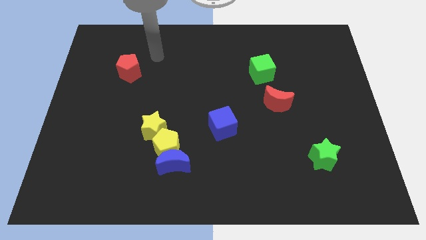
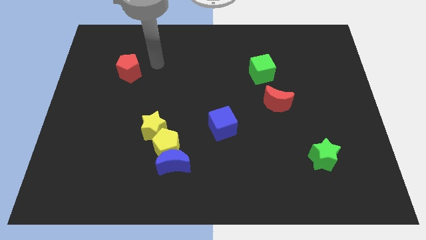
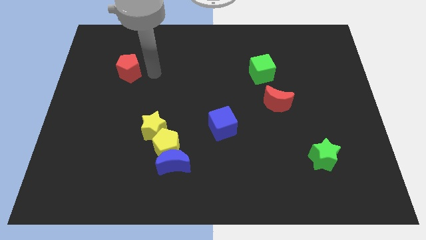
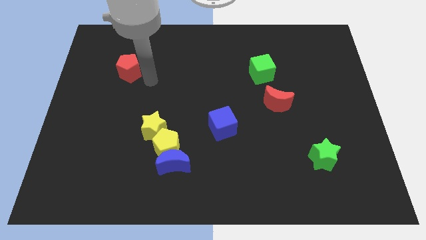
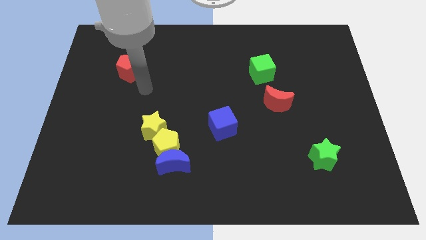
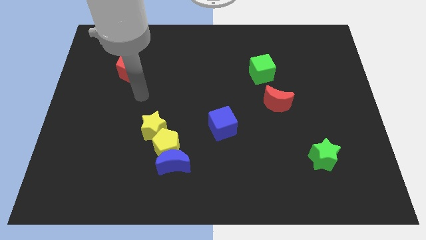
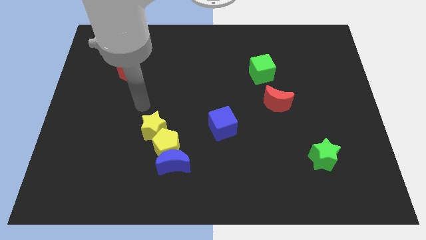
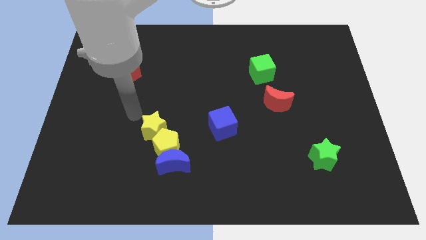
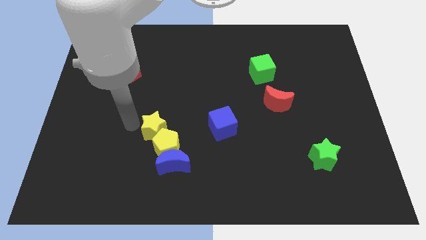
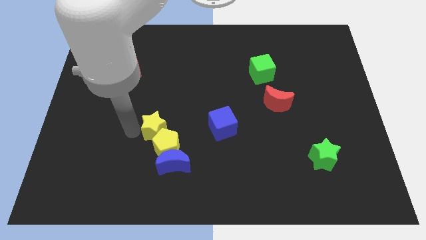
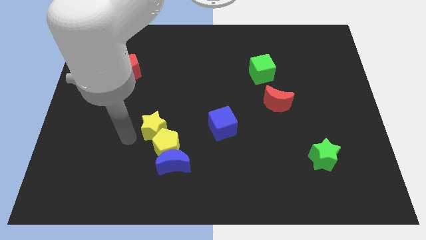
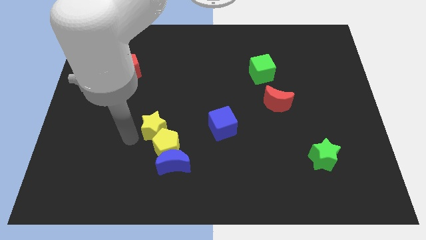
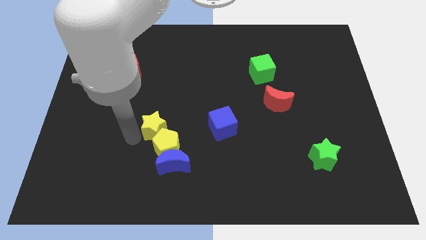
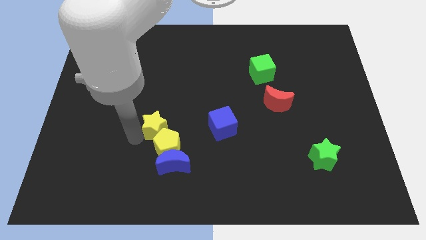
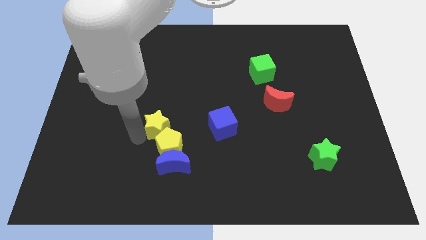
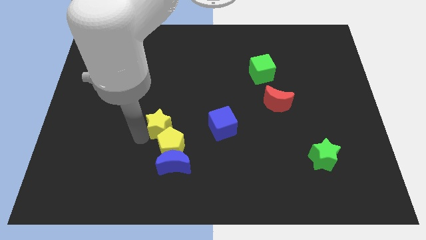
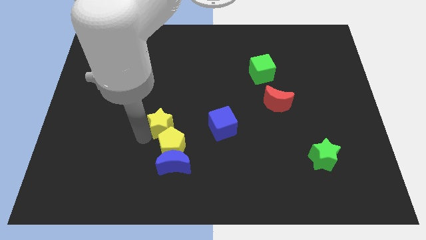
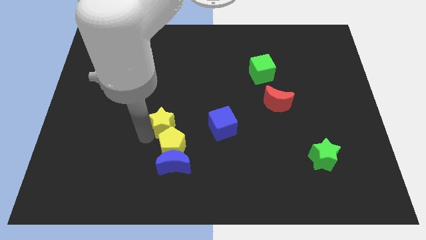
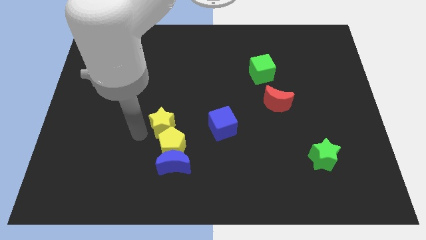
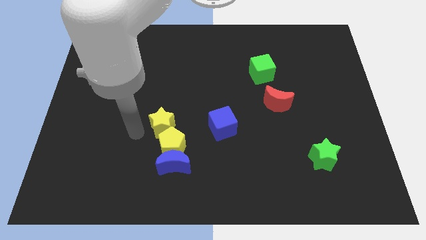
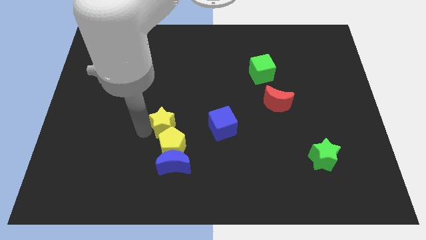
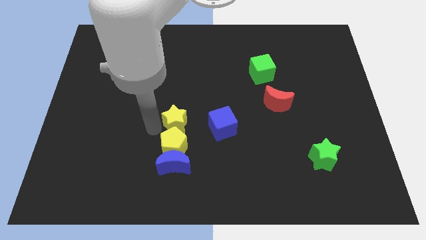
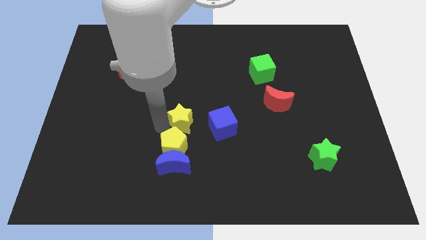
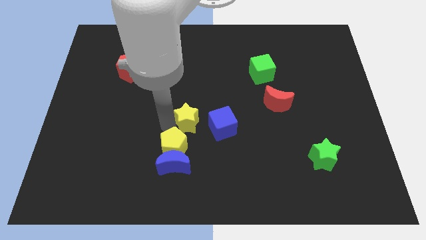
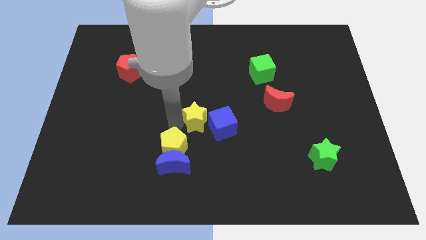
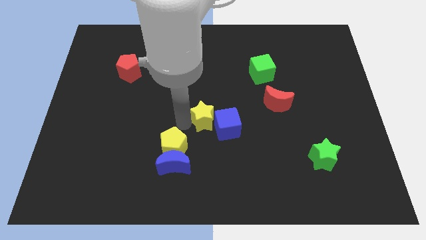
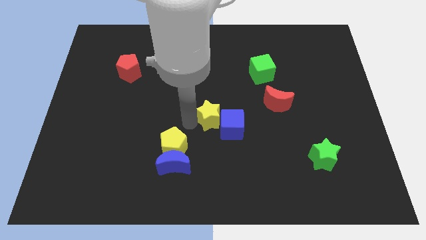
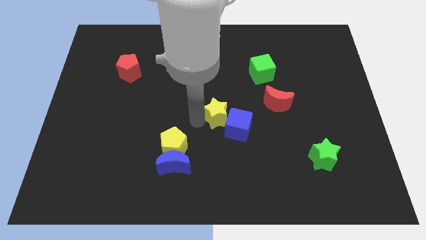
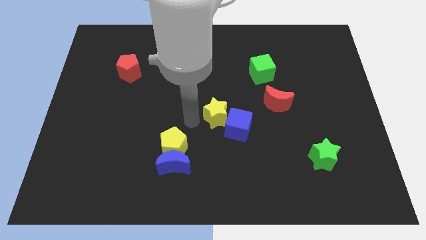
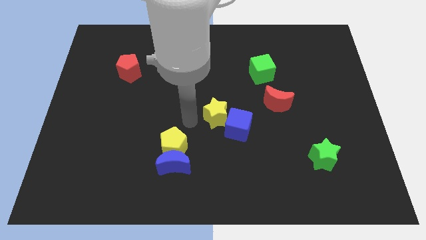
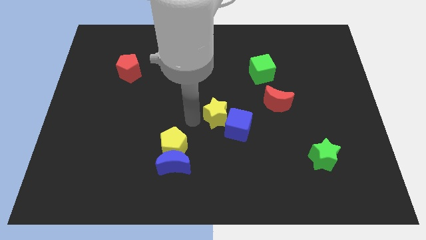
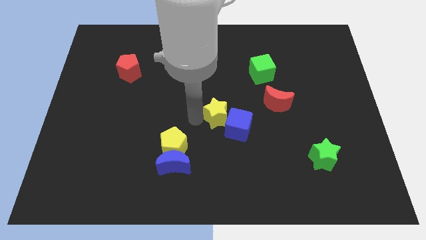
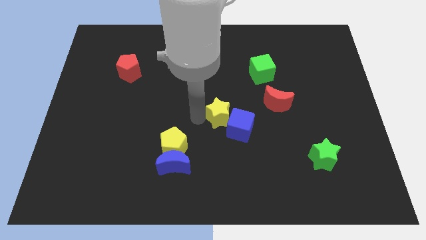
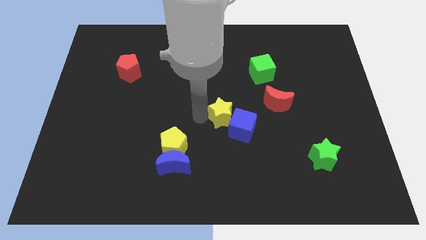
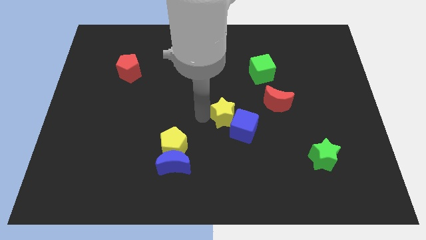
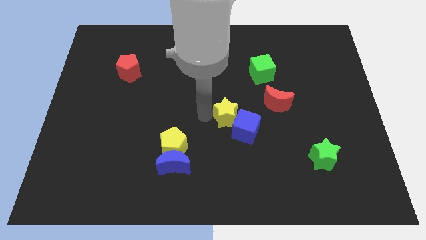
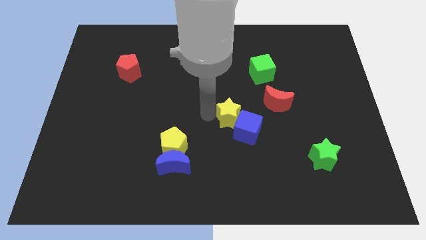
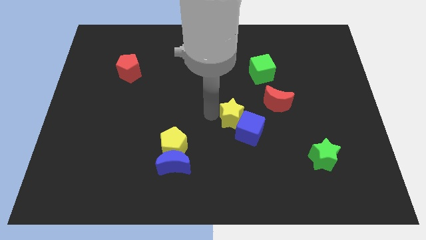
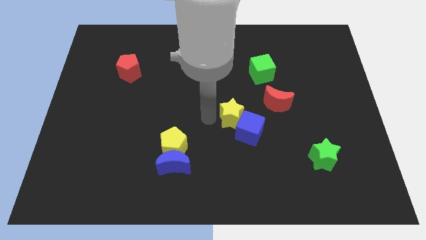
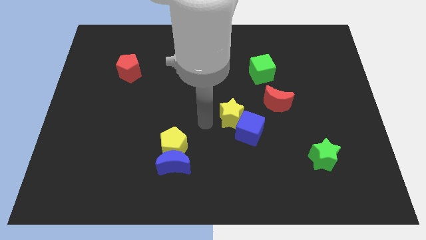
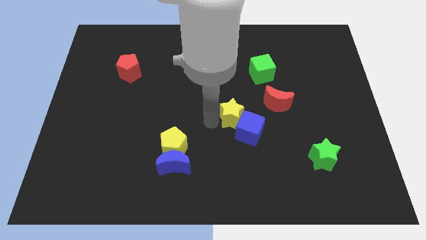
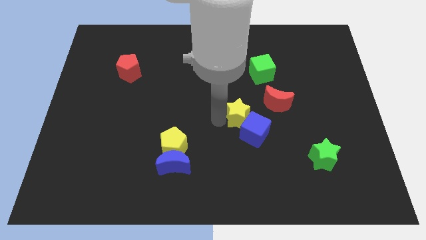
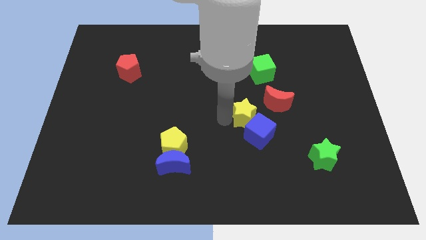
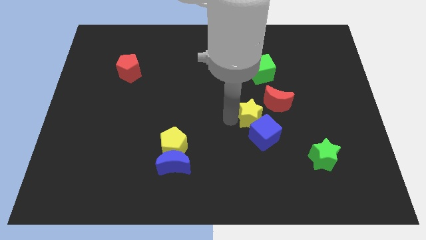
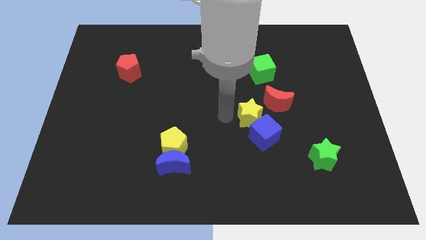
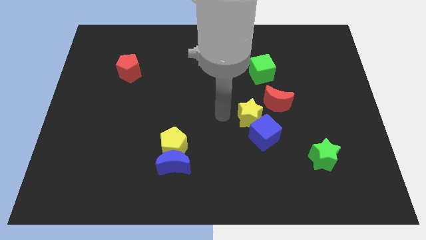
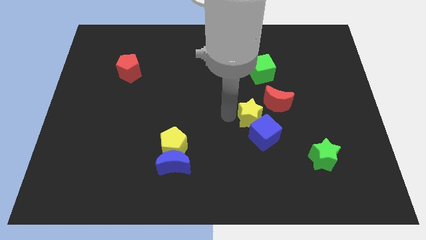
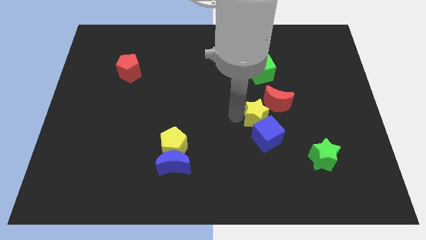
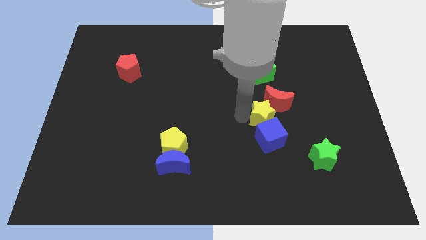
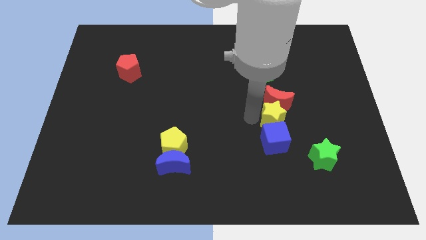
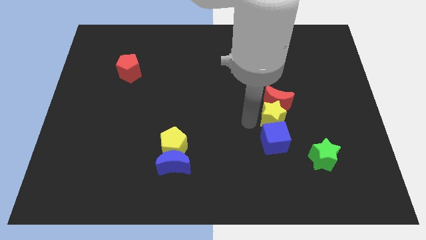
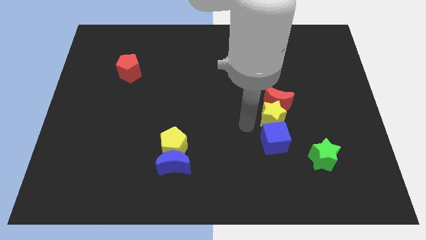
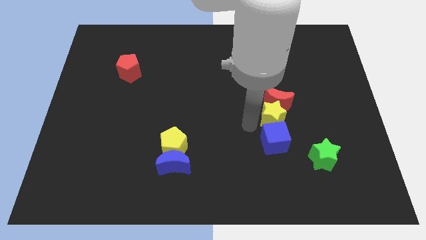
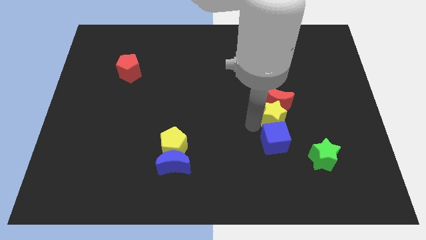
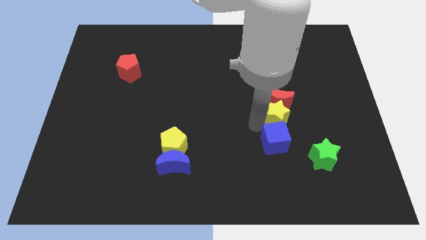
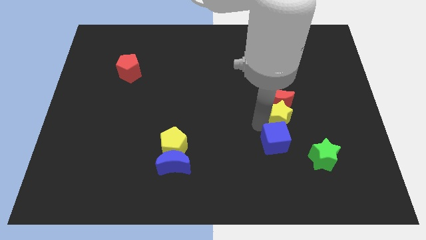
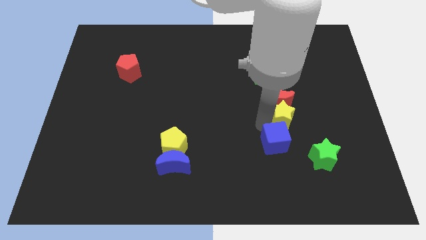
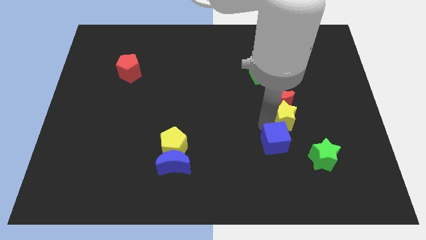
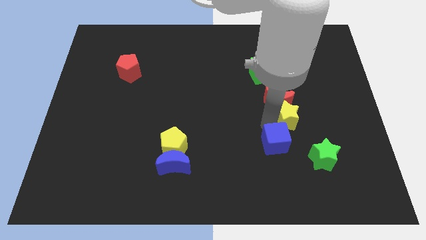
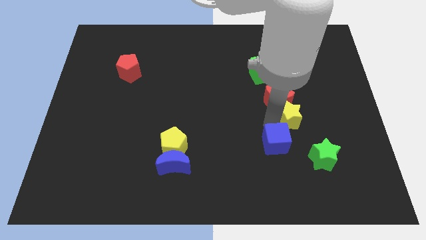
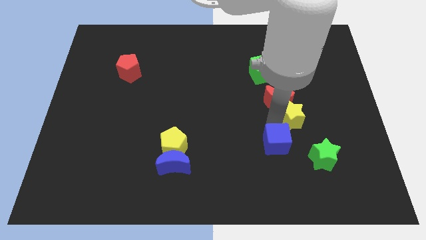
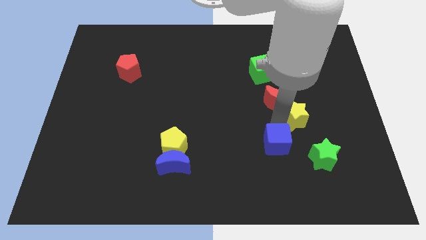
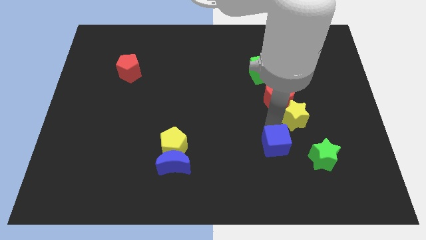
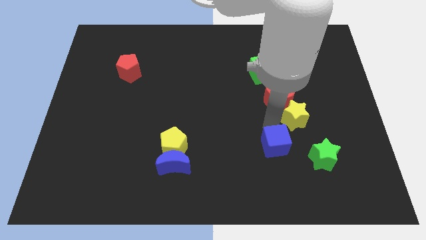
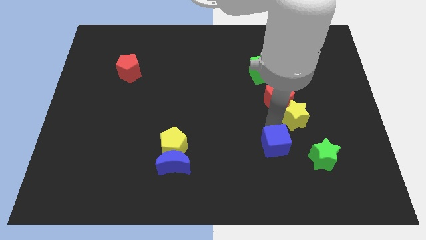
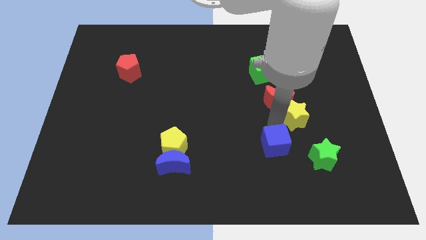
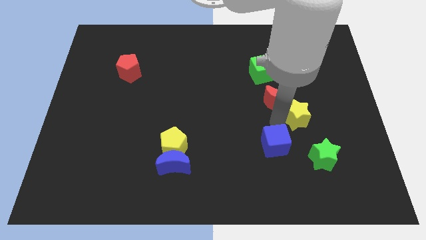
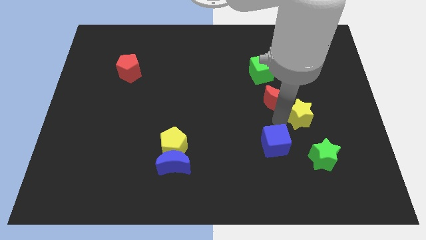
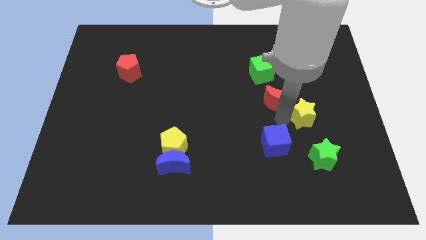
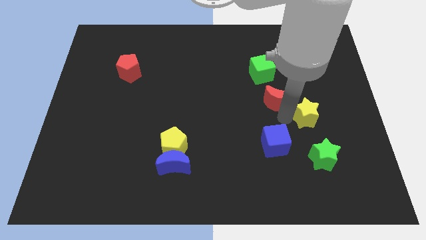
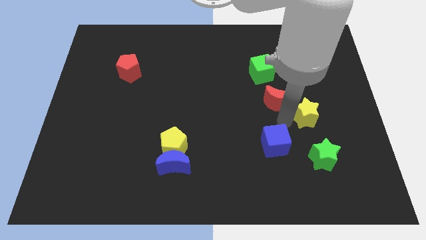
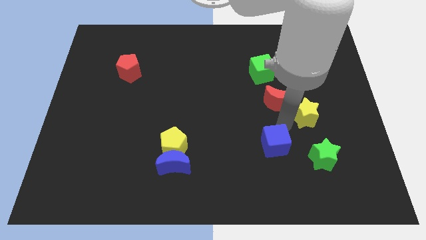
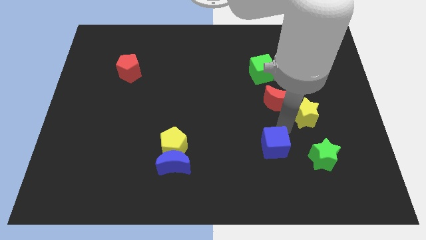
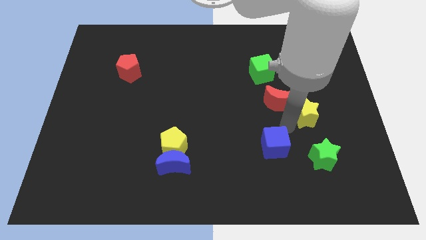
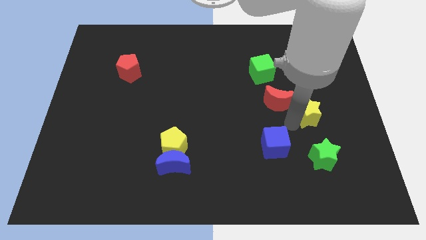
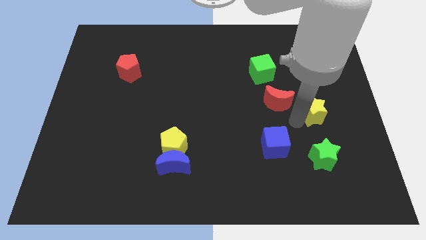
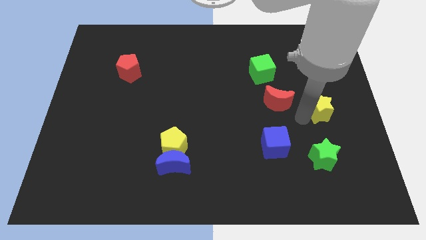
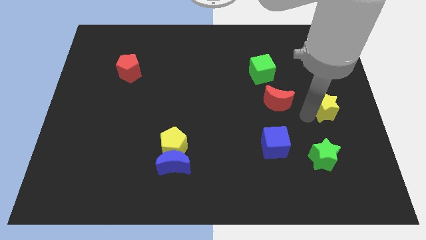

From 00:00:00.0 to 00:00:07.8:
move the yellow star to the right side of the board
